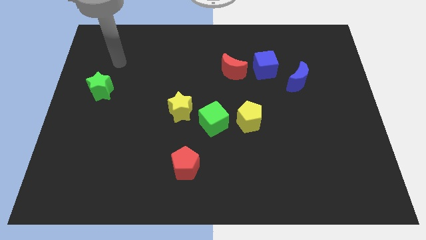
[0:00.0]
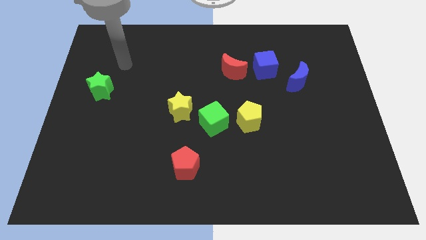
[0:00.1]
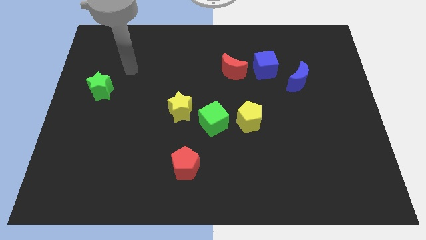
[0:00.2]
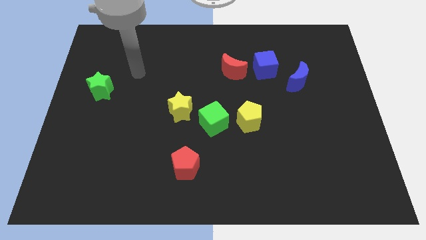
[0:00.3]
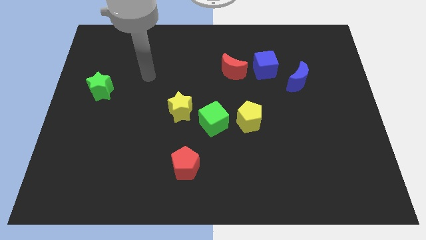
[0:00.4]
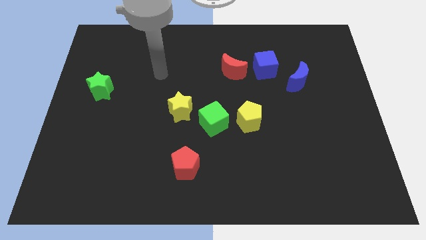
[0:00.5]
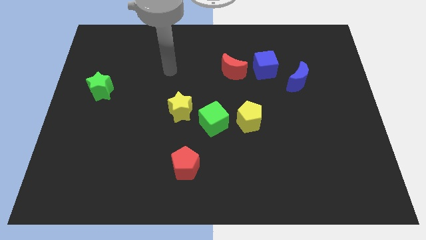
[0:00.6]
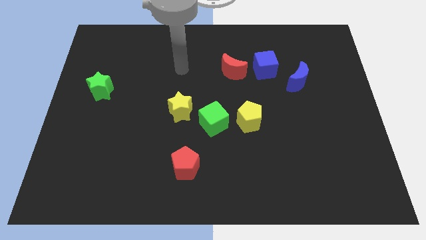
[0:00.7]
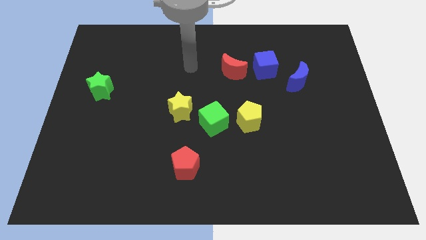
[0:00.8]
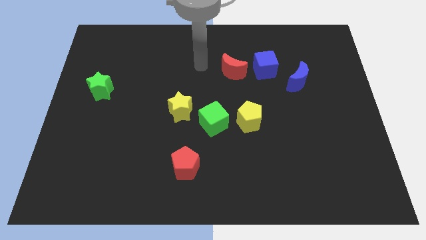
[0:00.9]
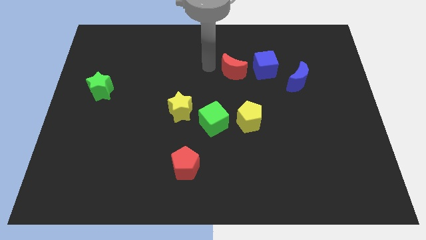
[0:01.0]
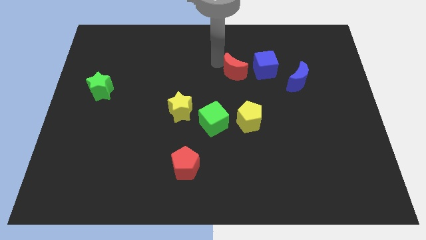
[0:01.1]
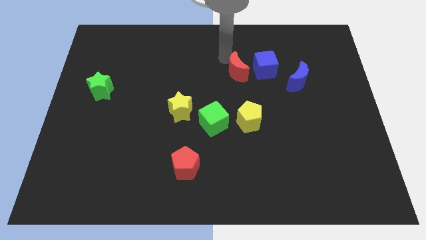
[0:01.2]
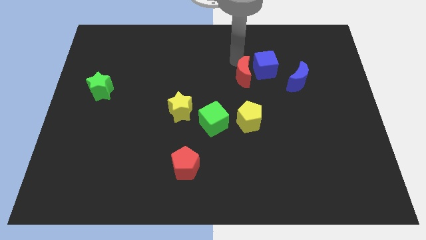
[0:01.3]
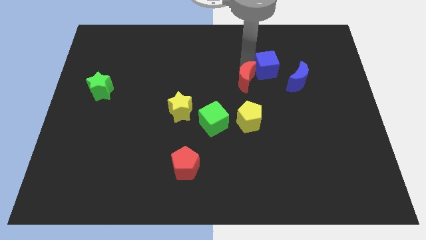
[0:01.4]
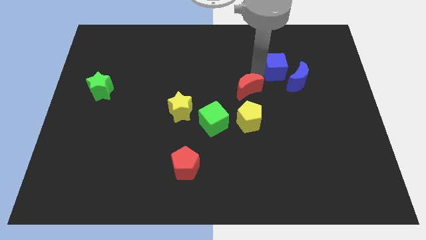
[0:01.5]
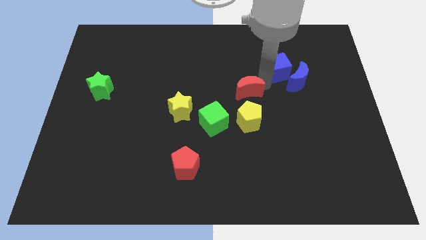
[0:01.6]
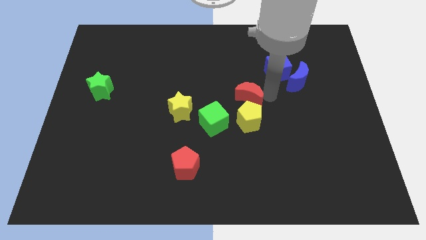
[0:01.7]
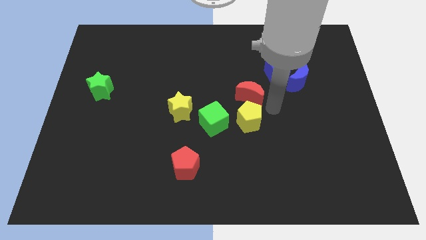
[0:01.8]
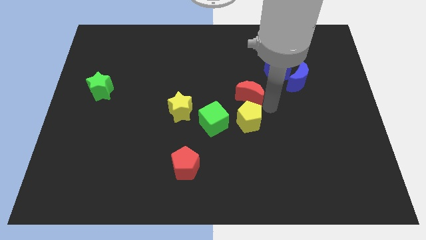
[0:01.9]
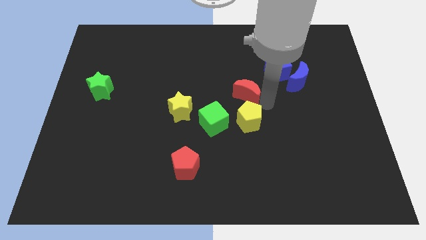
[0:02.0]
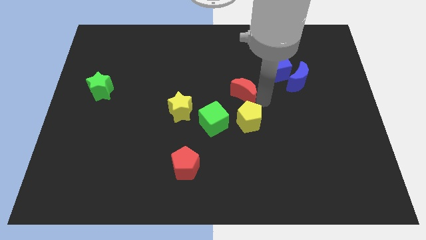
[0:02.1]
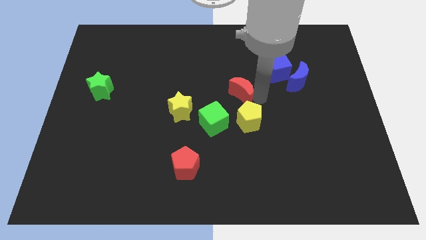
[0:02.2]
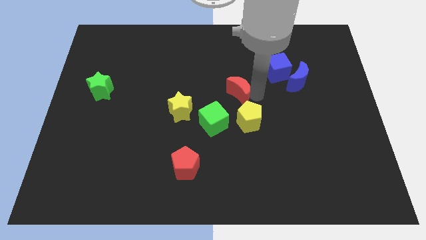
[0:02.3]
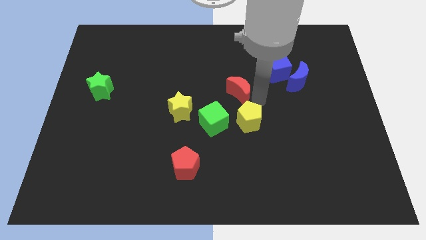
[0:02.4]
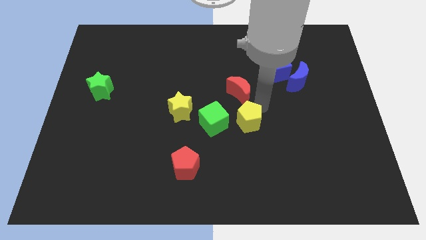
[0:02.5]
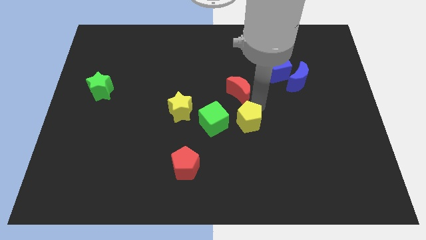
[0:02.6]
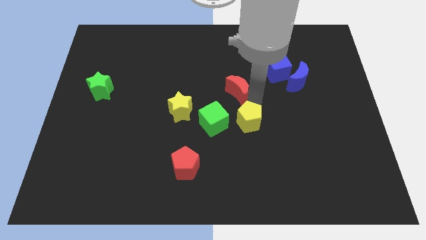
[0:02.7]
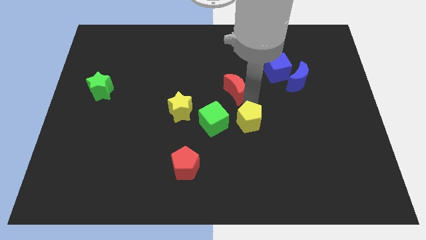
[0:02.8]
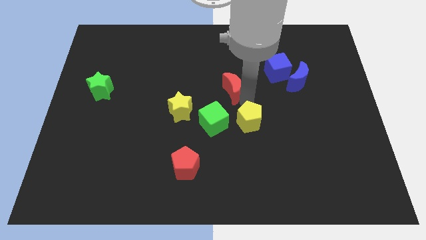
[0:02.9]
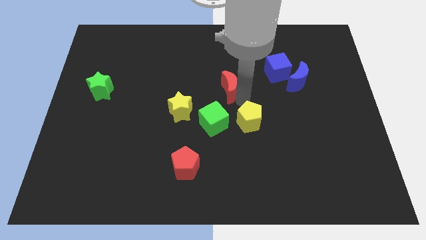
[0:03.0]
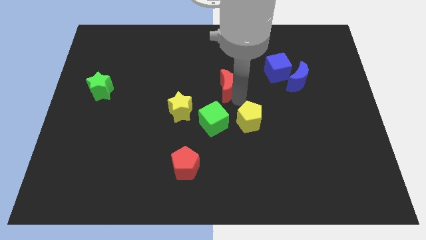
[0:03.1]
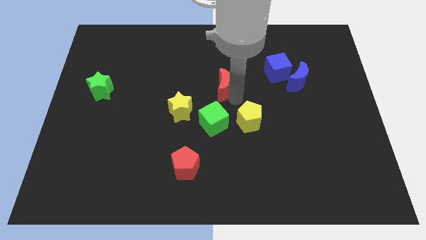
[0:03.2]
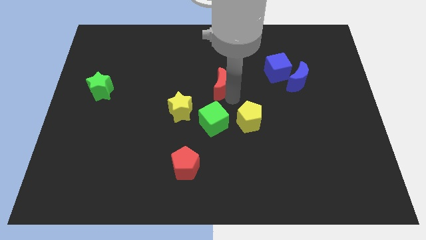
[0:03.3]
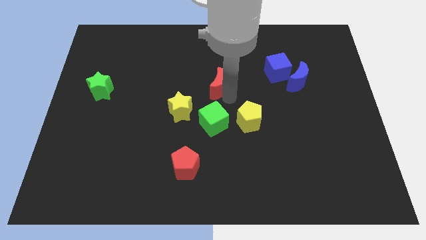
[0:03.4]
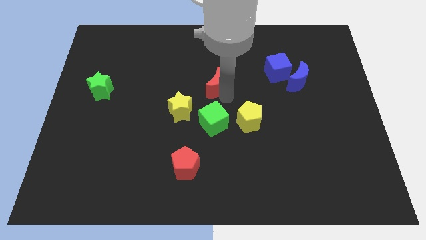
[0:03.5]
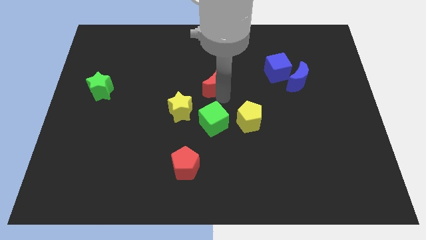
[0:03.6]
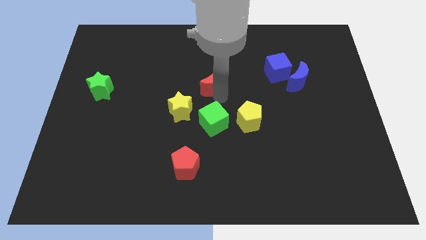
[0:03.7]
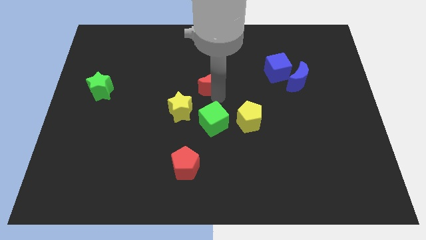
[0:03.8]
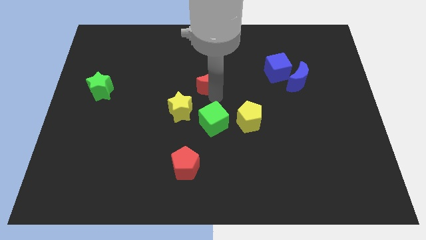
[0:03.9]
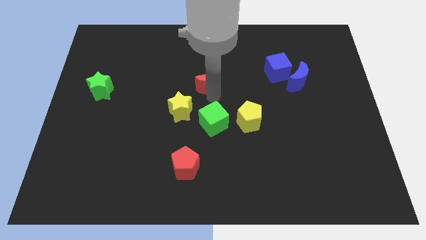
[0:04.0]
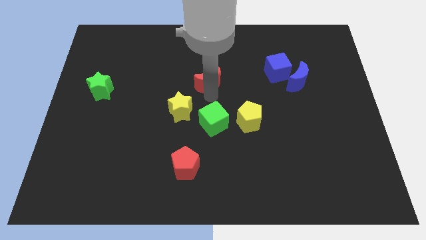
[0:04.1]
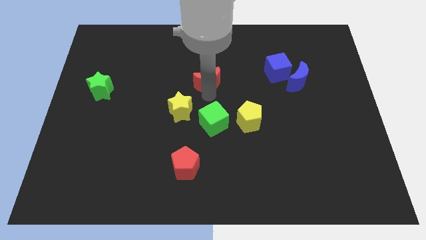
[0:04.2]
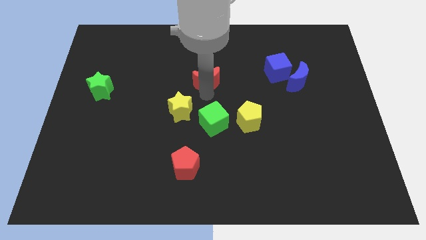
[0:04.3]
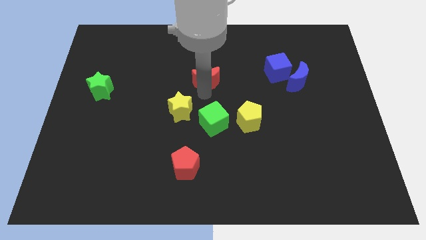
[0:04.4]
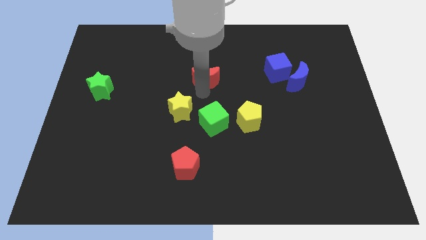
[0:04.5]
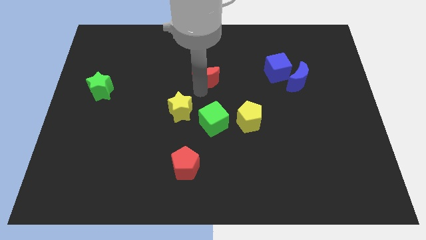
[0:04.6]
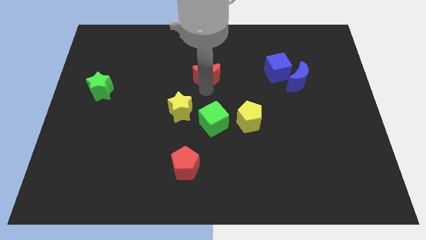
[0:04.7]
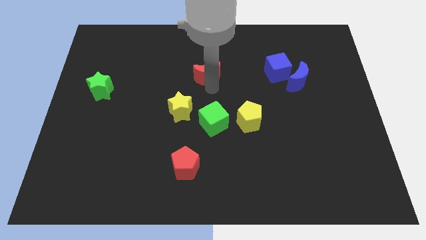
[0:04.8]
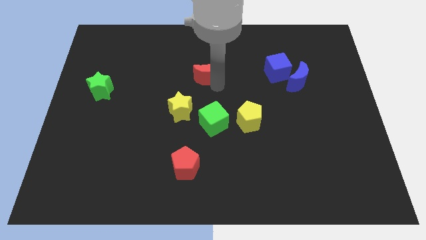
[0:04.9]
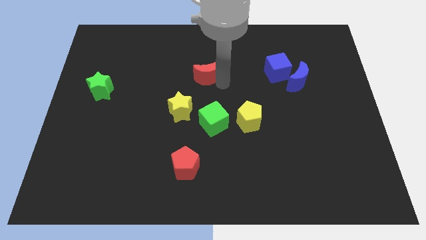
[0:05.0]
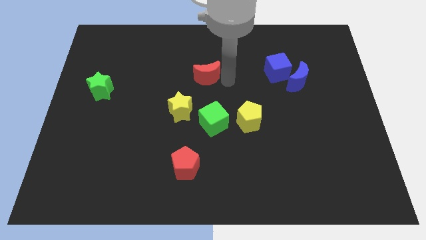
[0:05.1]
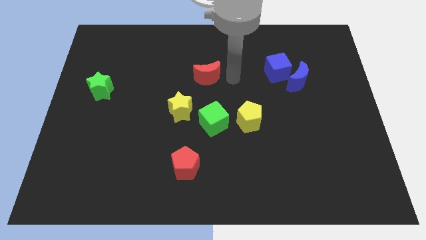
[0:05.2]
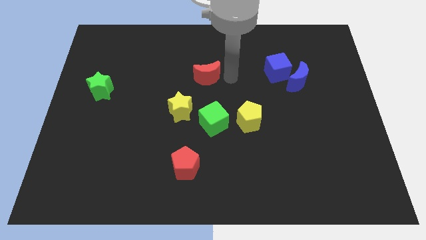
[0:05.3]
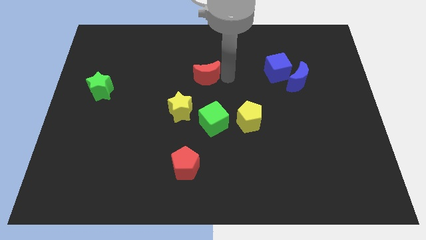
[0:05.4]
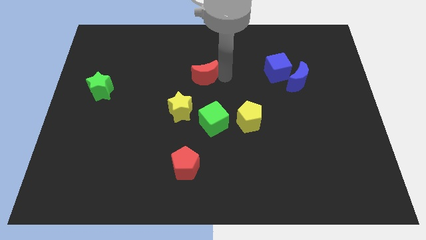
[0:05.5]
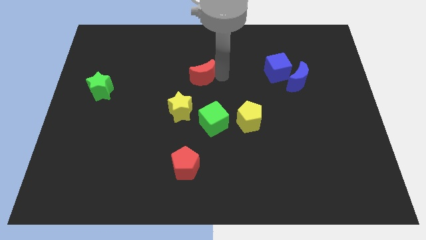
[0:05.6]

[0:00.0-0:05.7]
push the red moon slightly to the left

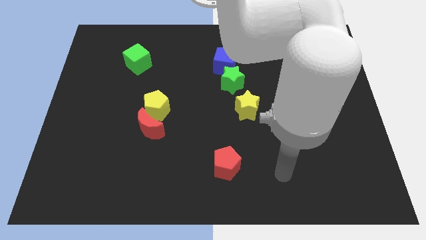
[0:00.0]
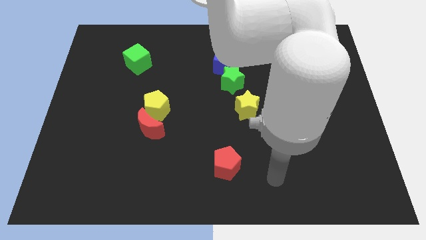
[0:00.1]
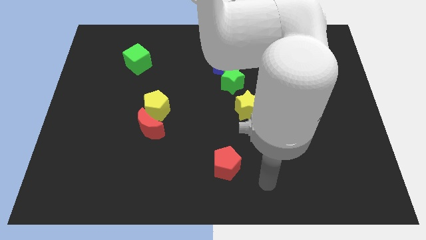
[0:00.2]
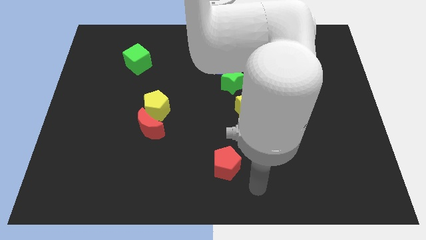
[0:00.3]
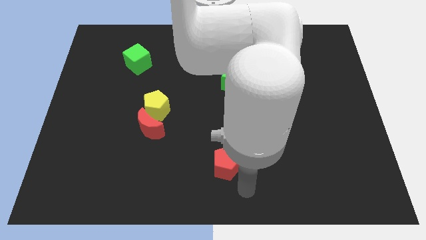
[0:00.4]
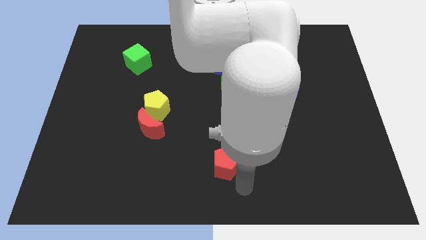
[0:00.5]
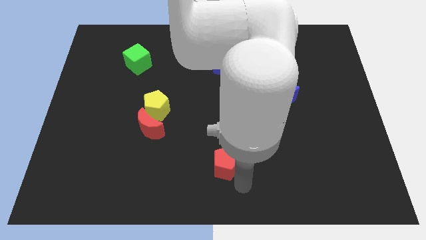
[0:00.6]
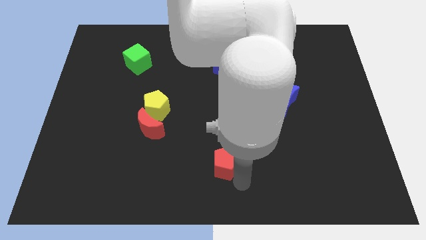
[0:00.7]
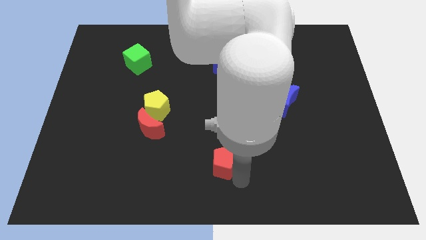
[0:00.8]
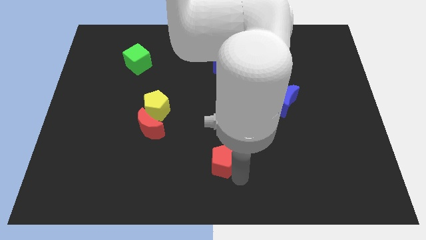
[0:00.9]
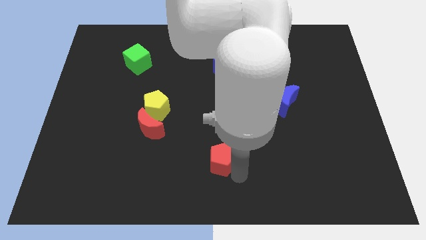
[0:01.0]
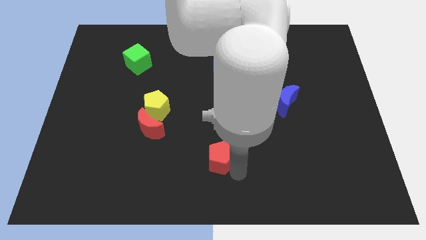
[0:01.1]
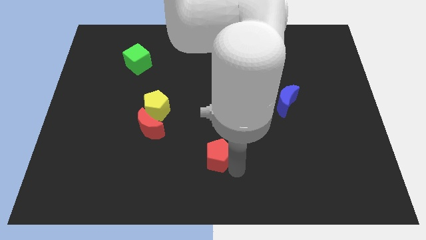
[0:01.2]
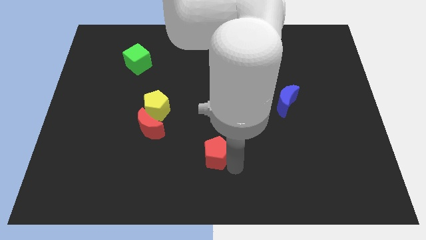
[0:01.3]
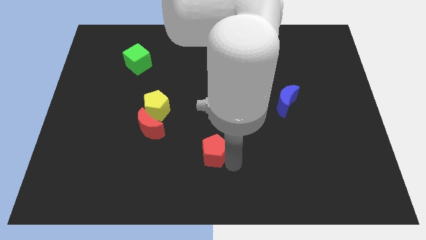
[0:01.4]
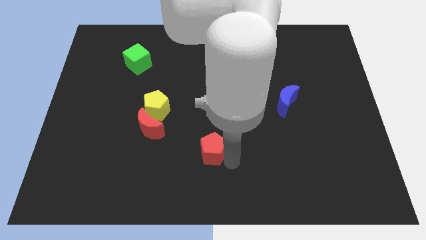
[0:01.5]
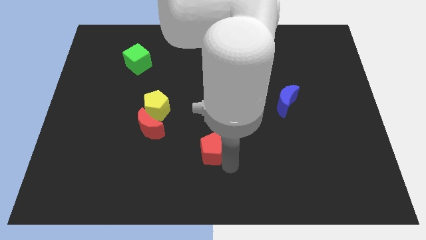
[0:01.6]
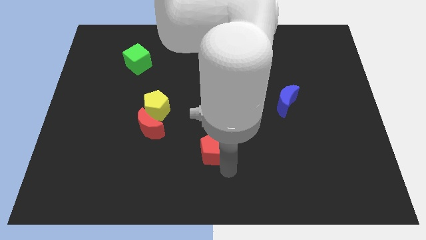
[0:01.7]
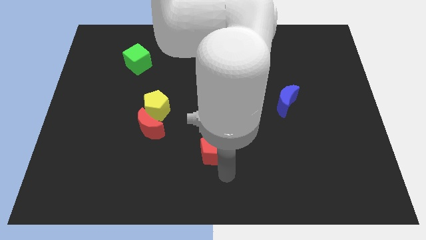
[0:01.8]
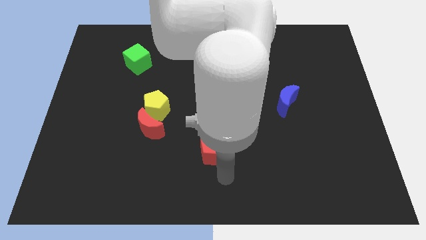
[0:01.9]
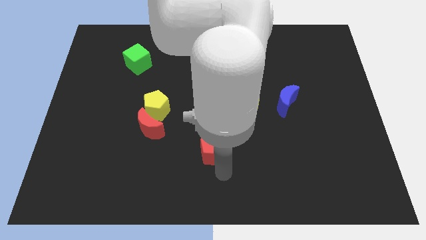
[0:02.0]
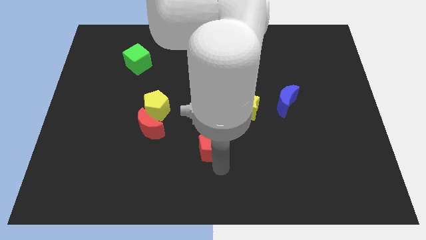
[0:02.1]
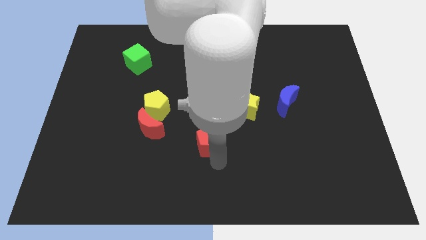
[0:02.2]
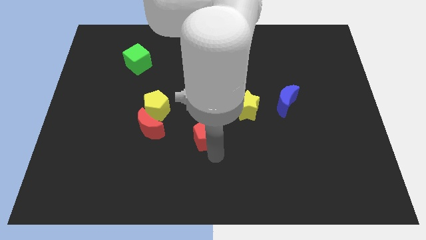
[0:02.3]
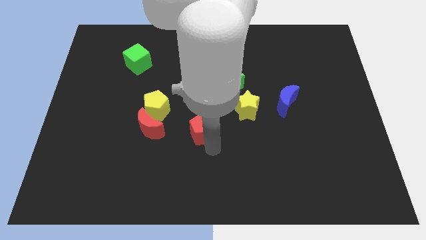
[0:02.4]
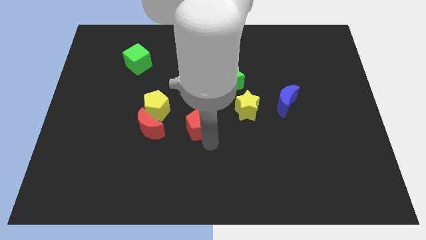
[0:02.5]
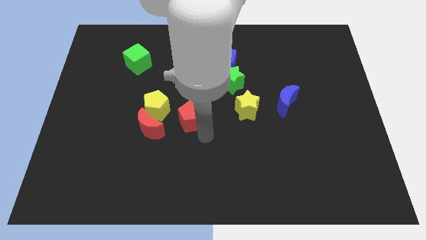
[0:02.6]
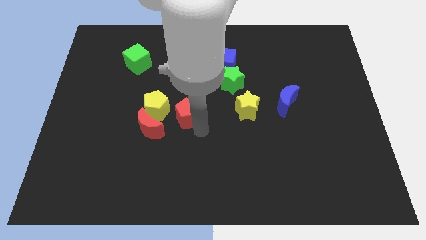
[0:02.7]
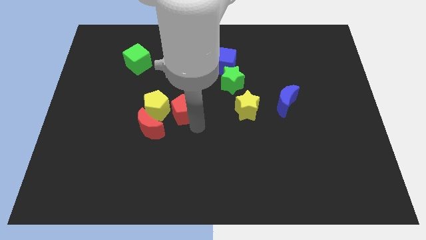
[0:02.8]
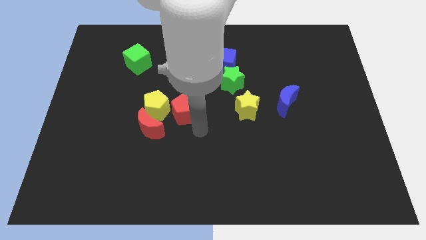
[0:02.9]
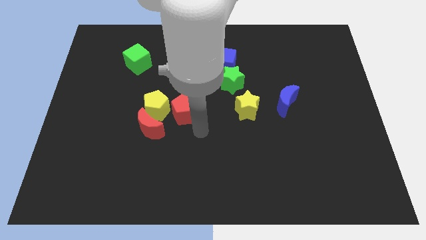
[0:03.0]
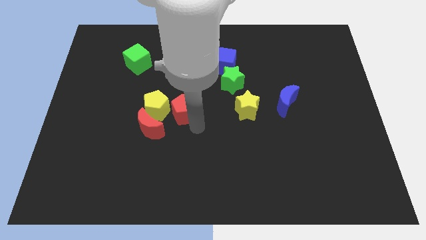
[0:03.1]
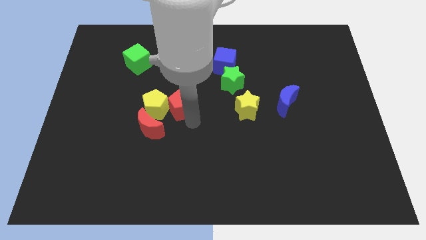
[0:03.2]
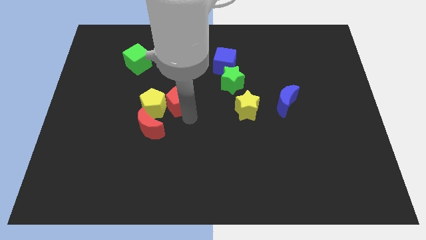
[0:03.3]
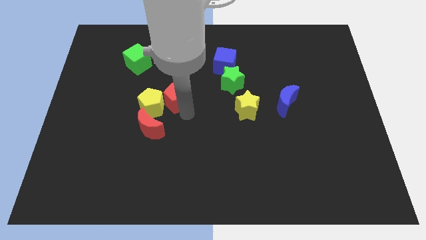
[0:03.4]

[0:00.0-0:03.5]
slide the red pentagon upwards and then left
